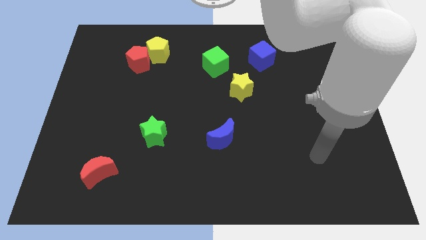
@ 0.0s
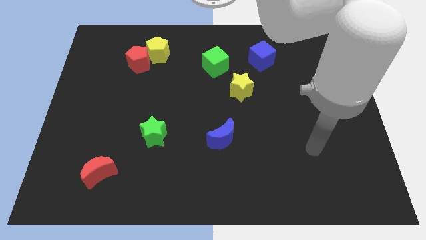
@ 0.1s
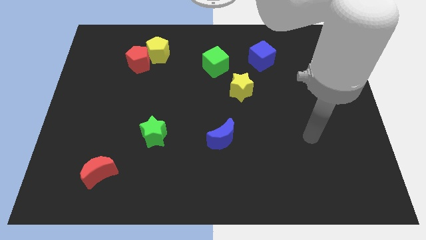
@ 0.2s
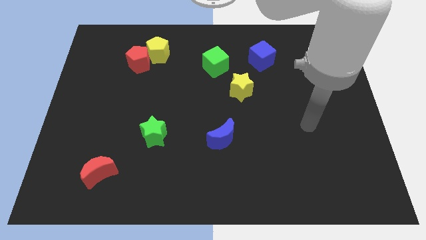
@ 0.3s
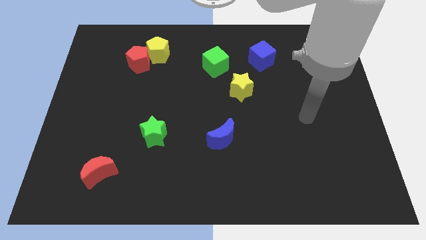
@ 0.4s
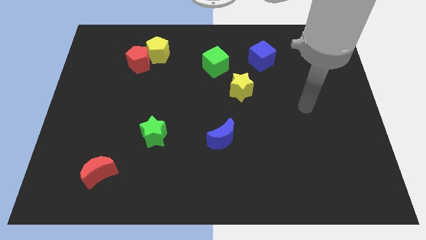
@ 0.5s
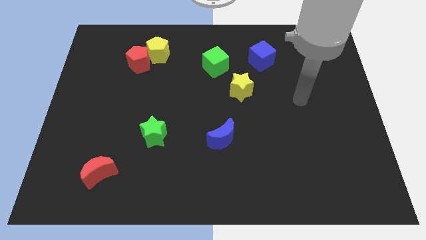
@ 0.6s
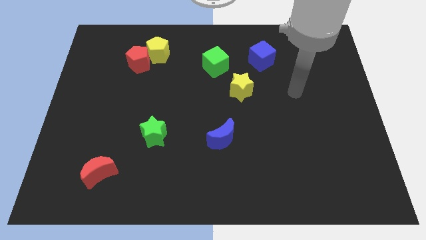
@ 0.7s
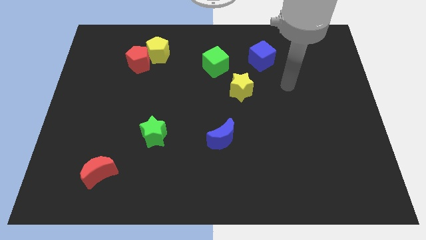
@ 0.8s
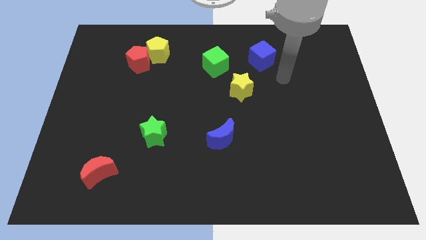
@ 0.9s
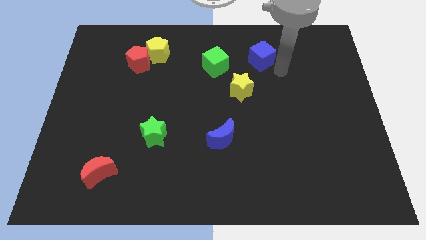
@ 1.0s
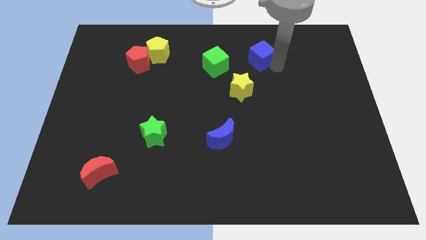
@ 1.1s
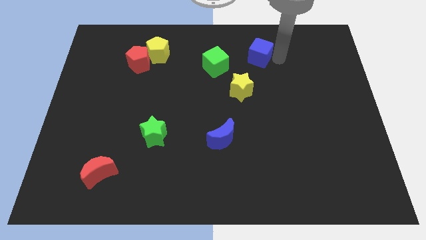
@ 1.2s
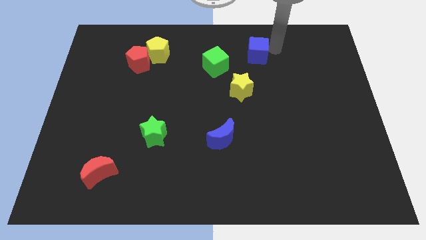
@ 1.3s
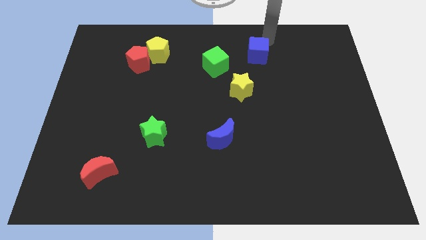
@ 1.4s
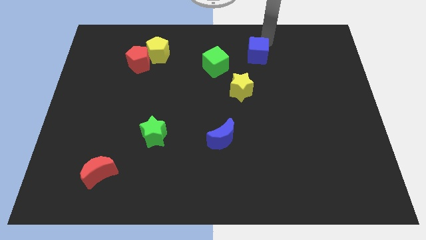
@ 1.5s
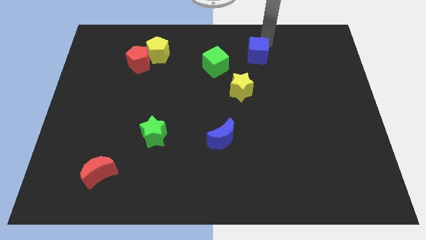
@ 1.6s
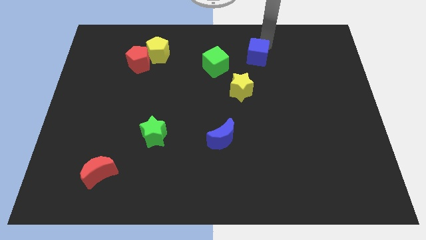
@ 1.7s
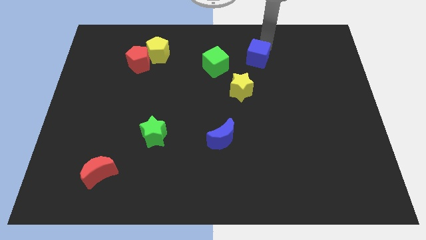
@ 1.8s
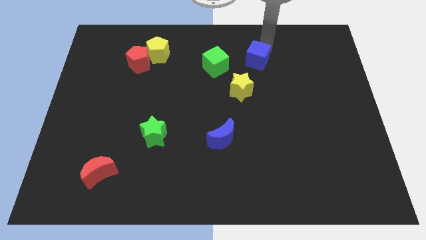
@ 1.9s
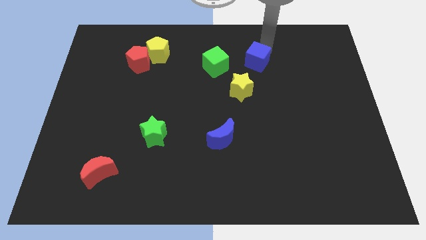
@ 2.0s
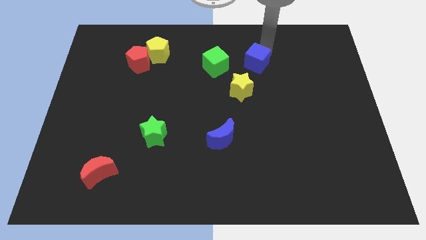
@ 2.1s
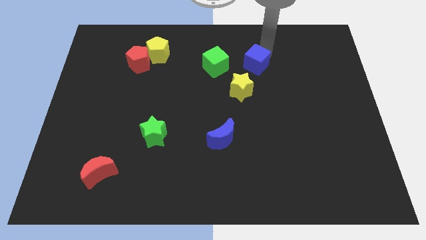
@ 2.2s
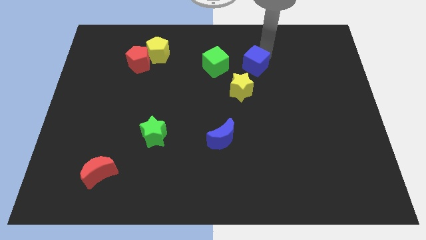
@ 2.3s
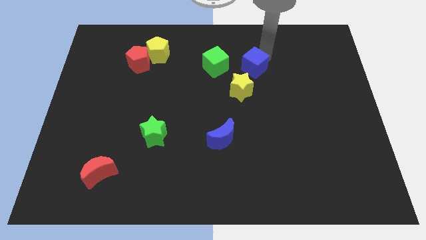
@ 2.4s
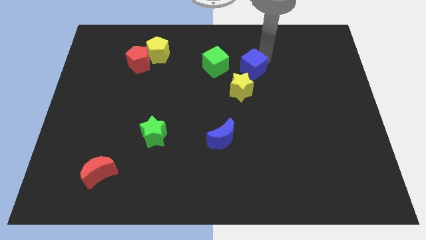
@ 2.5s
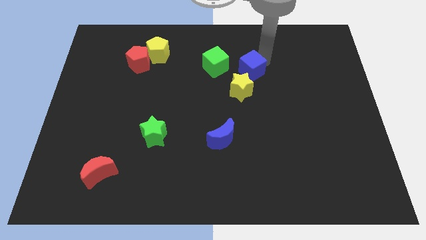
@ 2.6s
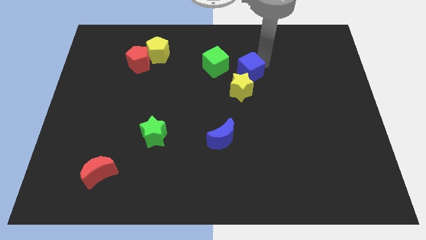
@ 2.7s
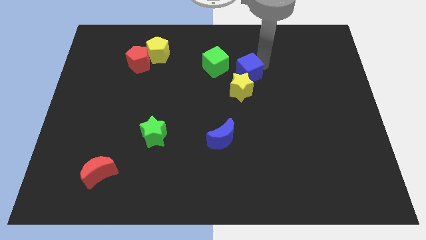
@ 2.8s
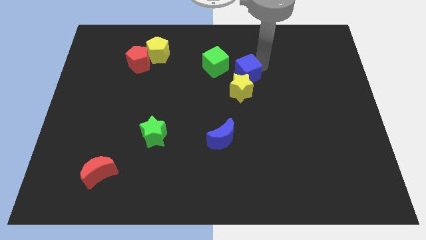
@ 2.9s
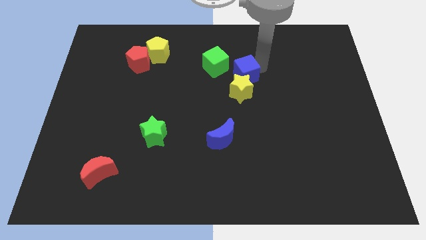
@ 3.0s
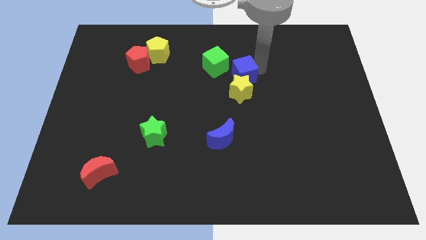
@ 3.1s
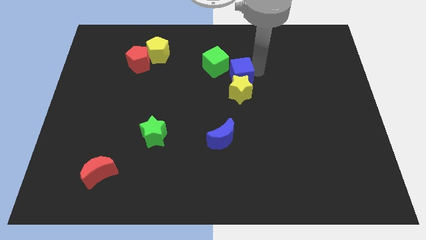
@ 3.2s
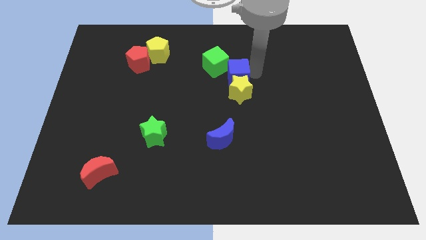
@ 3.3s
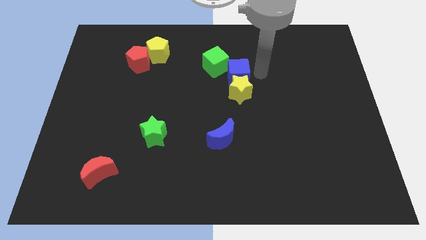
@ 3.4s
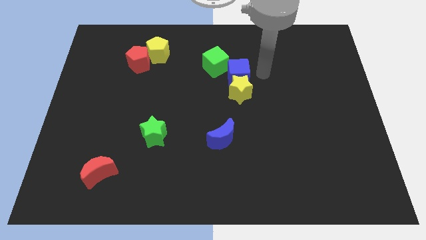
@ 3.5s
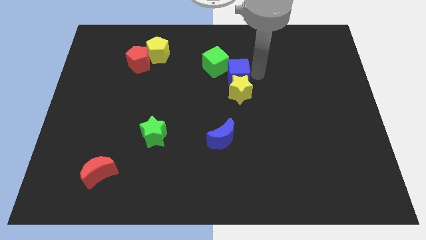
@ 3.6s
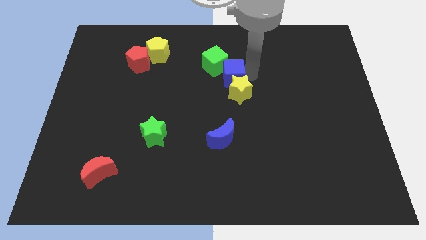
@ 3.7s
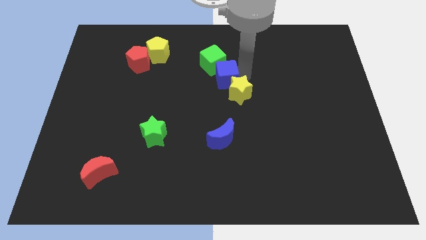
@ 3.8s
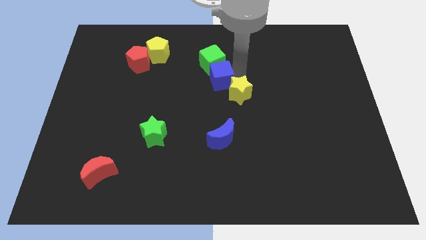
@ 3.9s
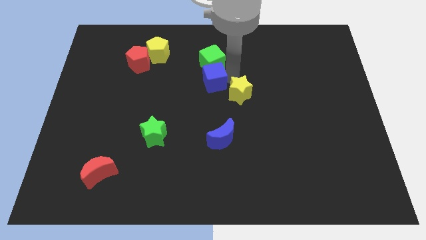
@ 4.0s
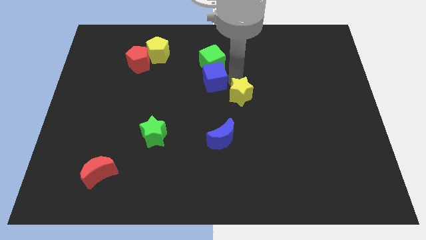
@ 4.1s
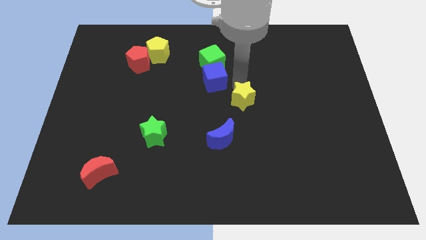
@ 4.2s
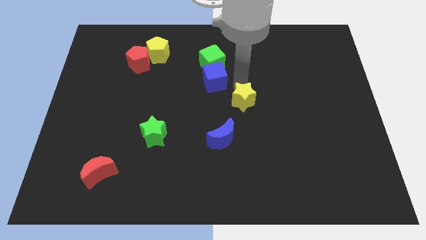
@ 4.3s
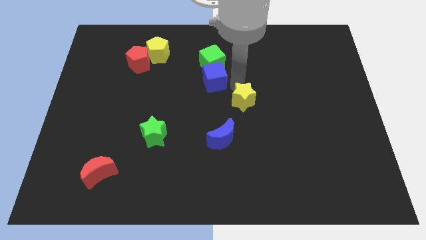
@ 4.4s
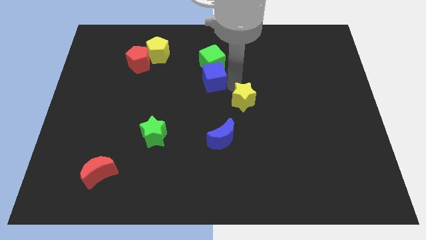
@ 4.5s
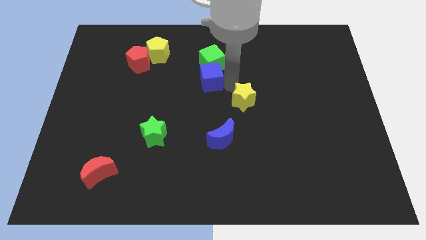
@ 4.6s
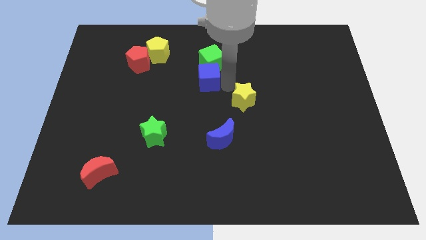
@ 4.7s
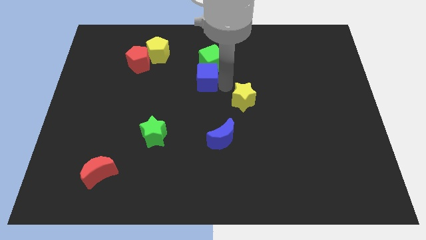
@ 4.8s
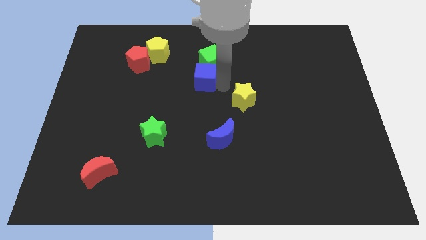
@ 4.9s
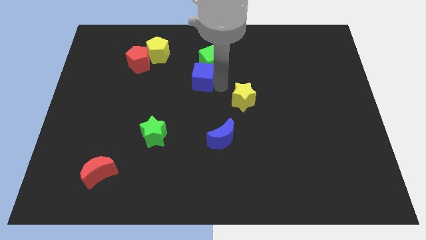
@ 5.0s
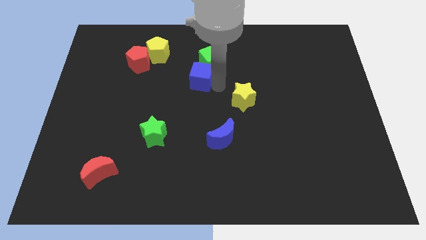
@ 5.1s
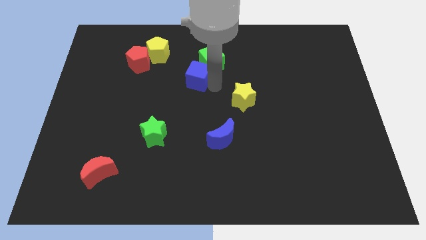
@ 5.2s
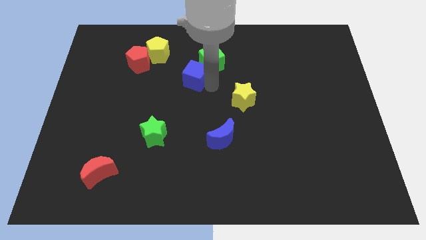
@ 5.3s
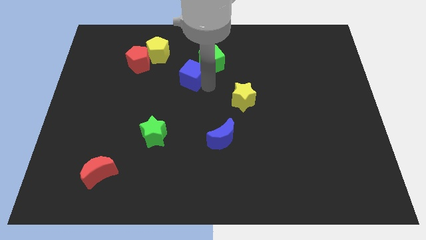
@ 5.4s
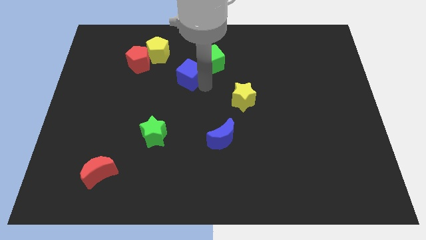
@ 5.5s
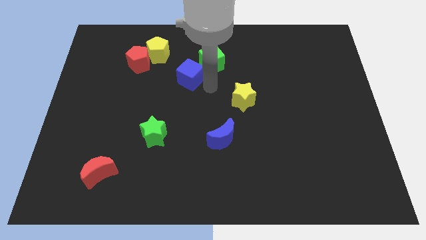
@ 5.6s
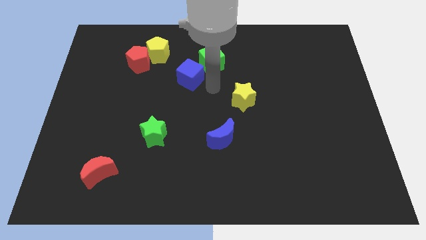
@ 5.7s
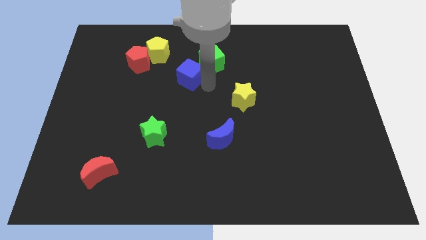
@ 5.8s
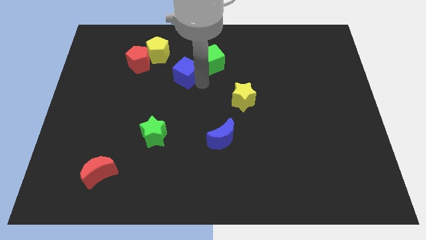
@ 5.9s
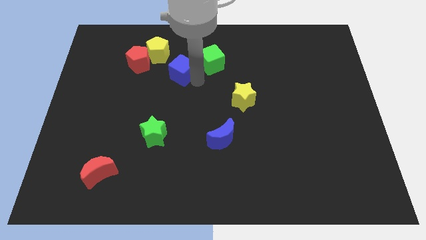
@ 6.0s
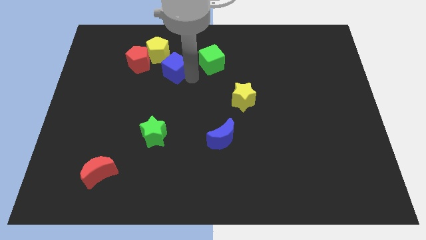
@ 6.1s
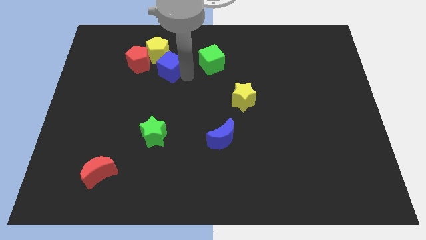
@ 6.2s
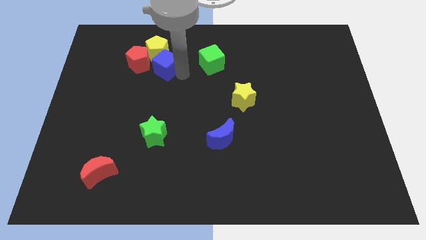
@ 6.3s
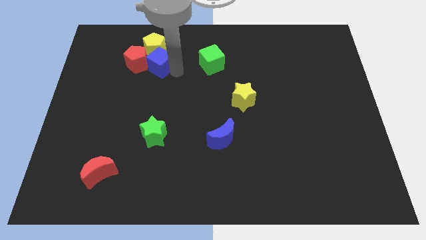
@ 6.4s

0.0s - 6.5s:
slide the blue cube to the red pentagon

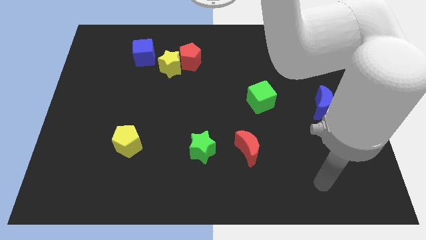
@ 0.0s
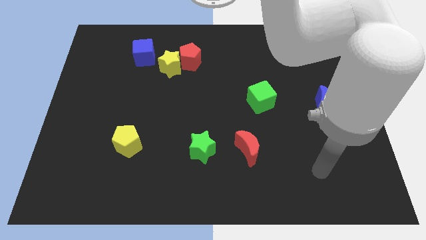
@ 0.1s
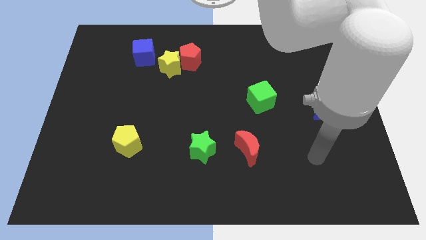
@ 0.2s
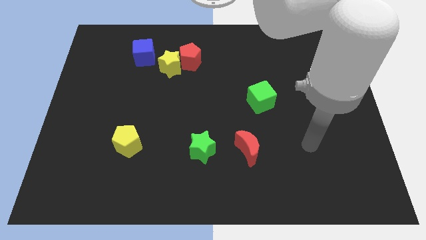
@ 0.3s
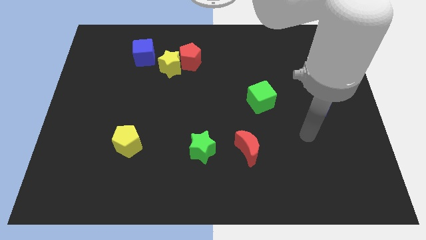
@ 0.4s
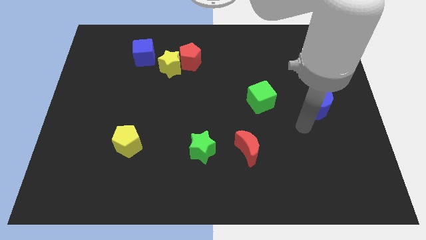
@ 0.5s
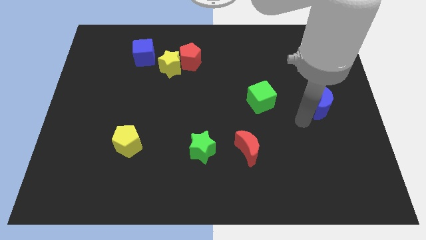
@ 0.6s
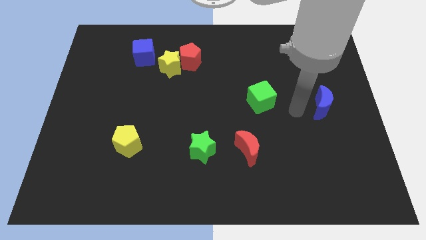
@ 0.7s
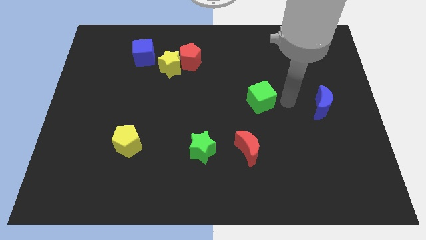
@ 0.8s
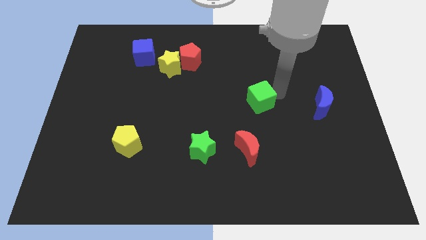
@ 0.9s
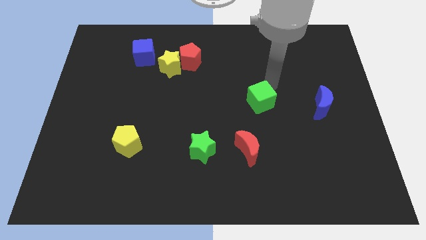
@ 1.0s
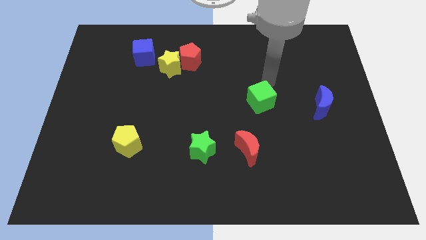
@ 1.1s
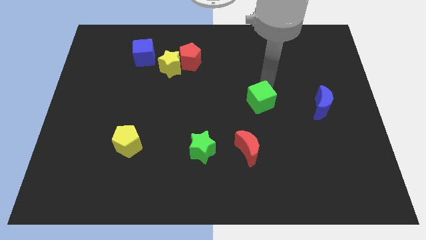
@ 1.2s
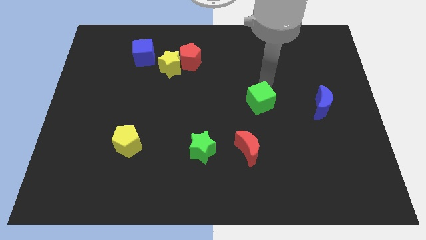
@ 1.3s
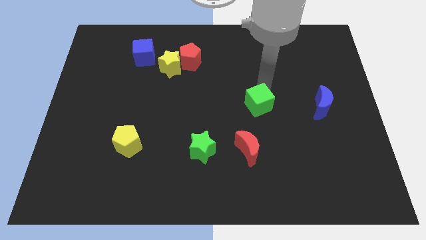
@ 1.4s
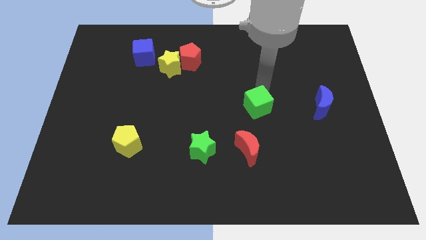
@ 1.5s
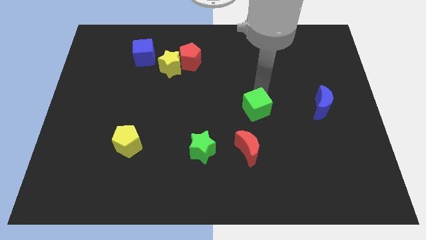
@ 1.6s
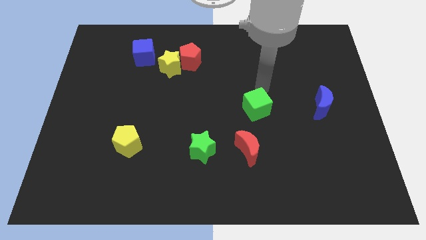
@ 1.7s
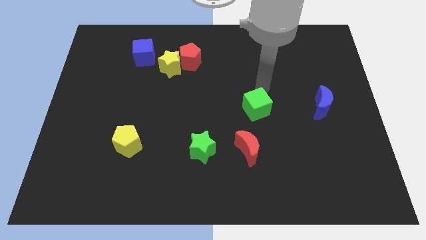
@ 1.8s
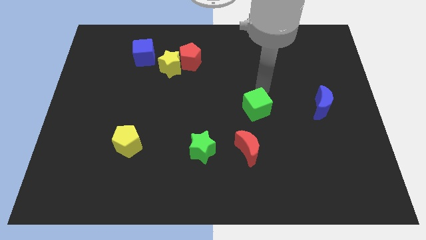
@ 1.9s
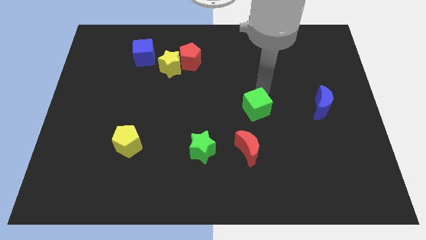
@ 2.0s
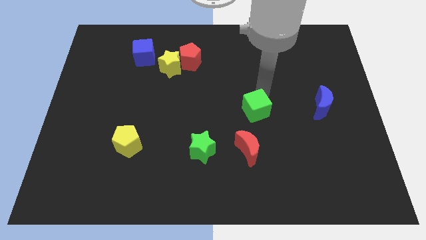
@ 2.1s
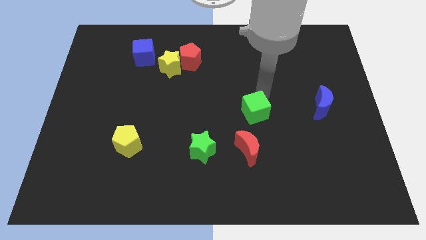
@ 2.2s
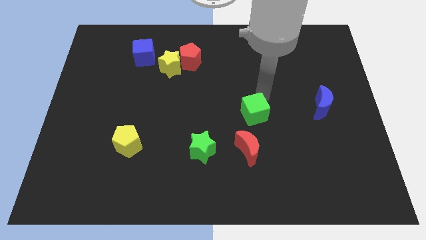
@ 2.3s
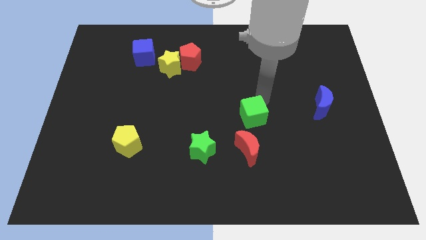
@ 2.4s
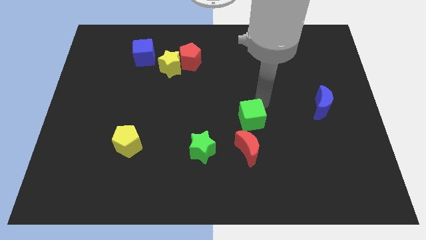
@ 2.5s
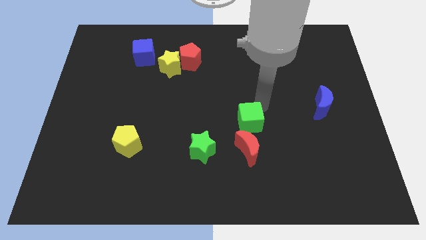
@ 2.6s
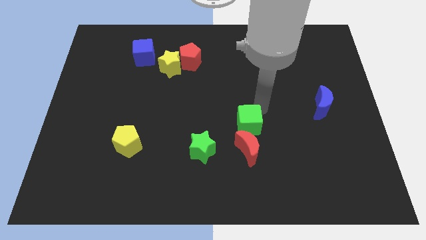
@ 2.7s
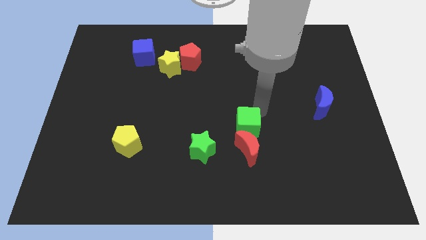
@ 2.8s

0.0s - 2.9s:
slide the green cube to the red moon
